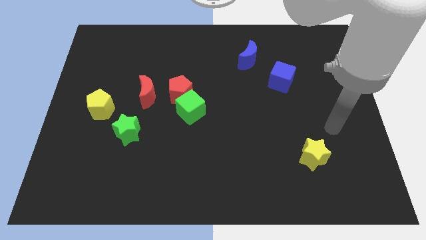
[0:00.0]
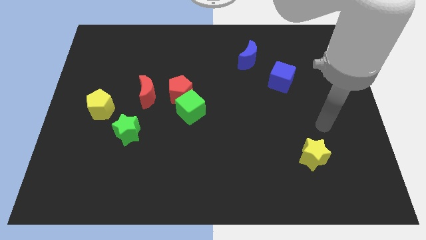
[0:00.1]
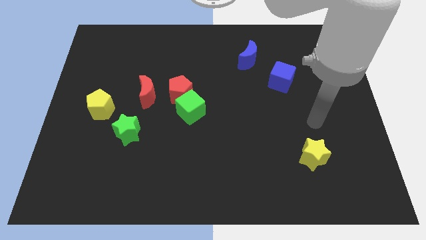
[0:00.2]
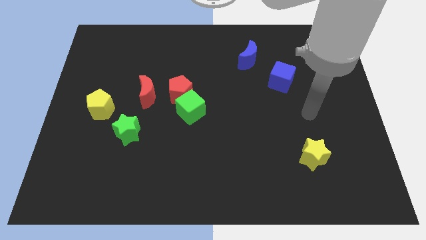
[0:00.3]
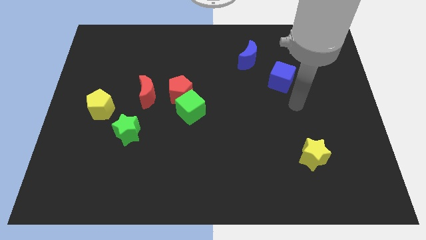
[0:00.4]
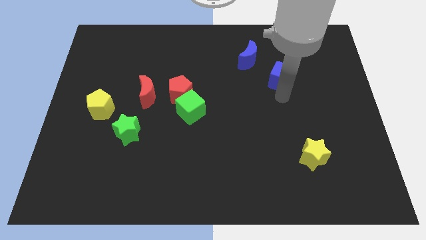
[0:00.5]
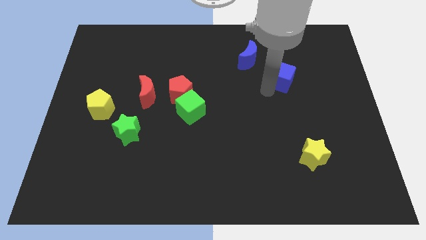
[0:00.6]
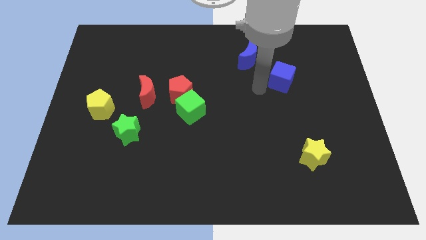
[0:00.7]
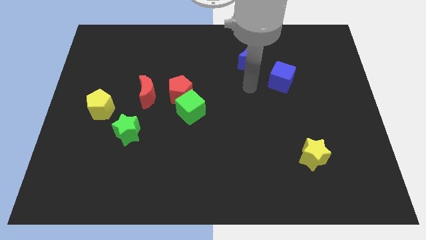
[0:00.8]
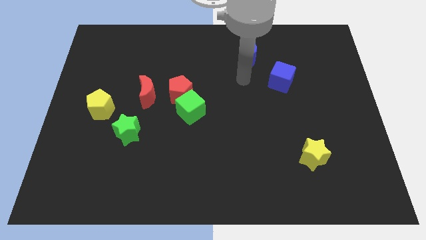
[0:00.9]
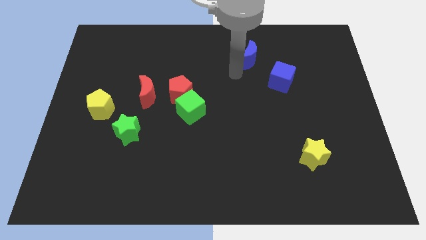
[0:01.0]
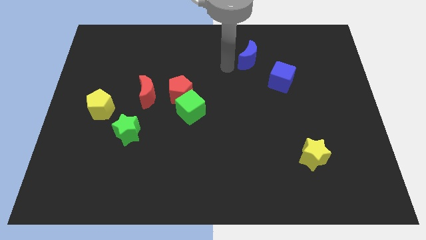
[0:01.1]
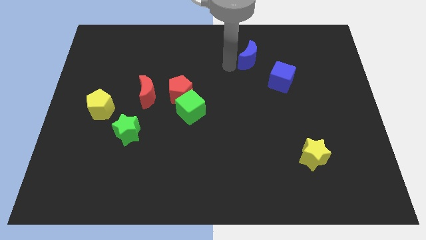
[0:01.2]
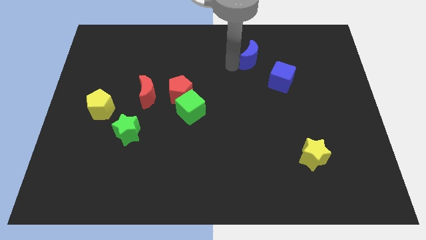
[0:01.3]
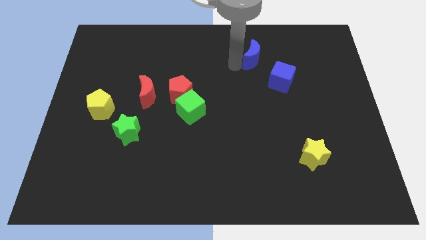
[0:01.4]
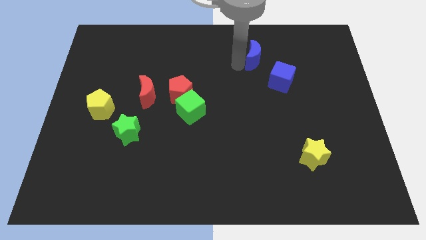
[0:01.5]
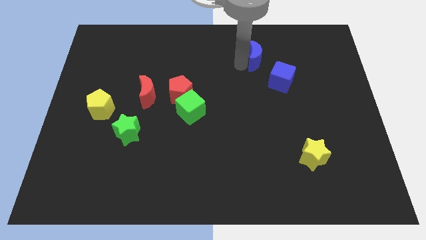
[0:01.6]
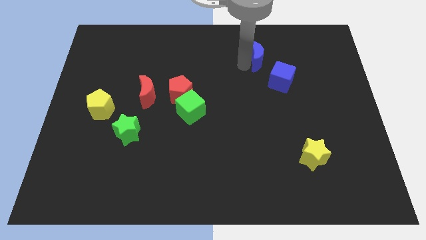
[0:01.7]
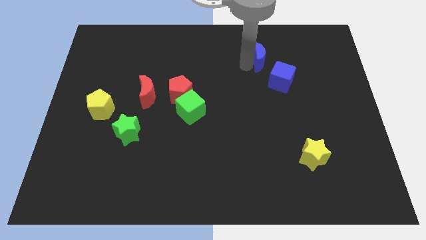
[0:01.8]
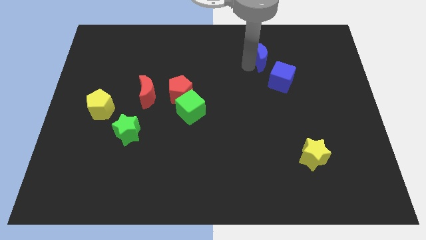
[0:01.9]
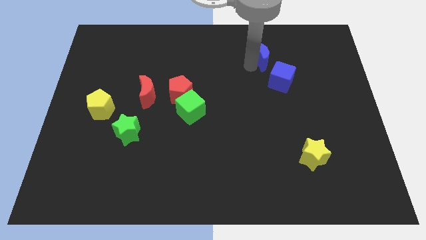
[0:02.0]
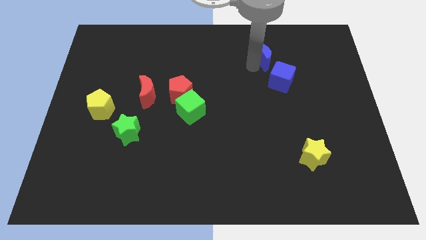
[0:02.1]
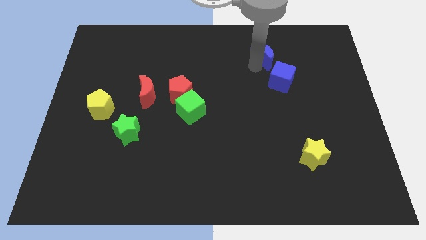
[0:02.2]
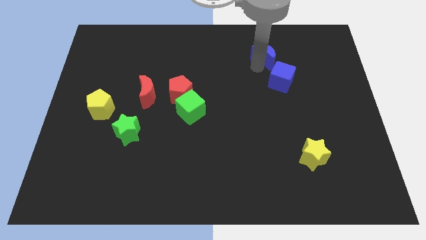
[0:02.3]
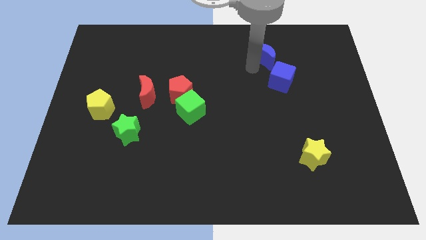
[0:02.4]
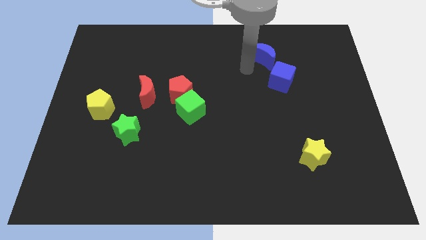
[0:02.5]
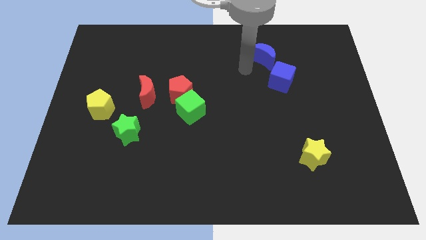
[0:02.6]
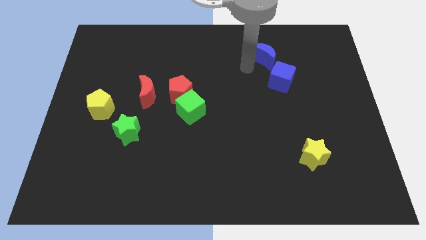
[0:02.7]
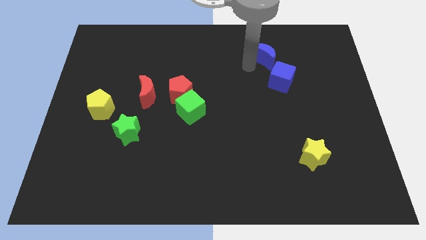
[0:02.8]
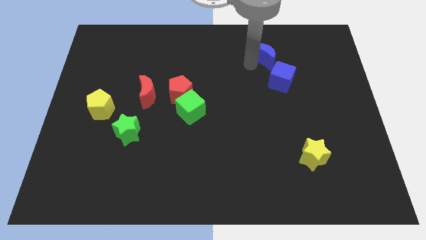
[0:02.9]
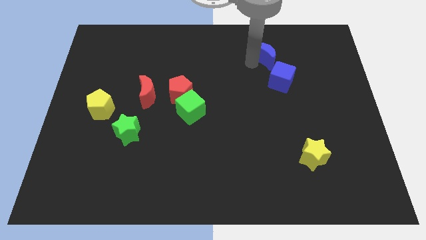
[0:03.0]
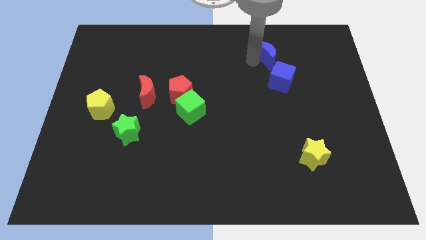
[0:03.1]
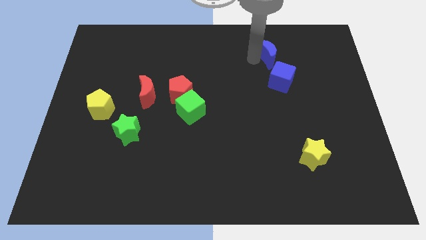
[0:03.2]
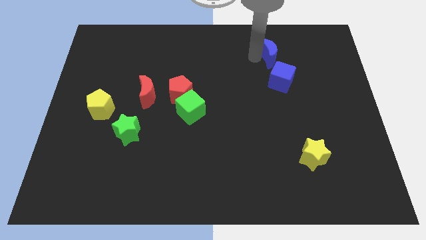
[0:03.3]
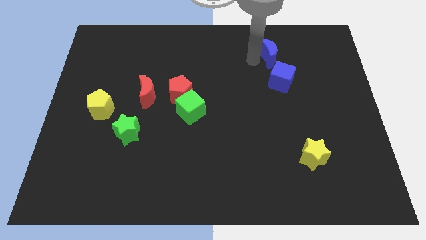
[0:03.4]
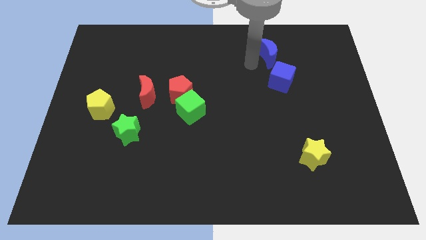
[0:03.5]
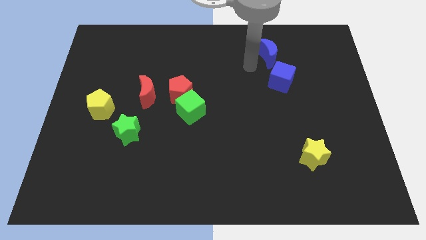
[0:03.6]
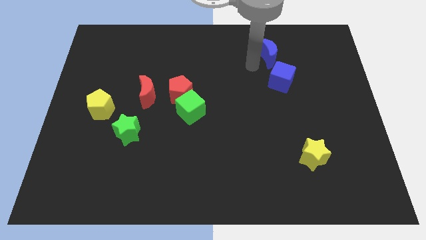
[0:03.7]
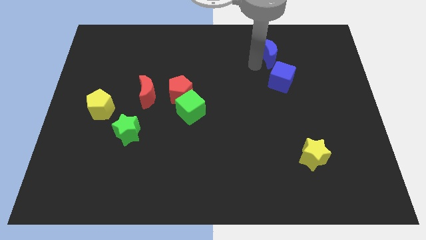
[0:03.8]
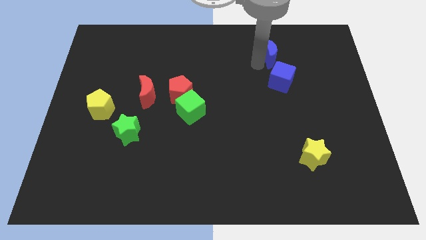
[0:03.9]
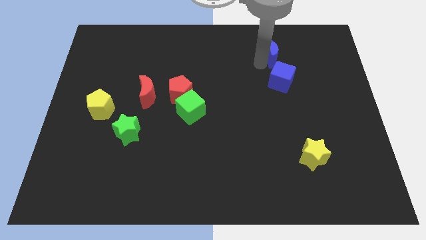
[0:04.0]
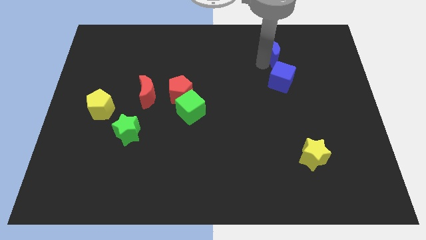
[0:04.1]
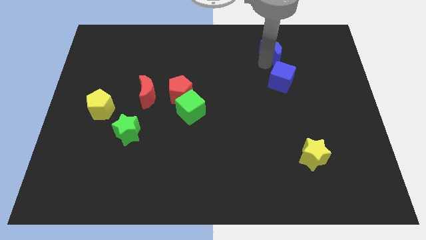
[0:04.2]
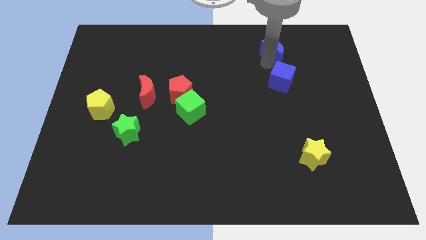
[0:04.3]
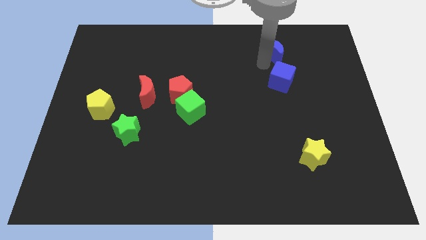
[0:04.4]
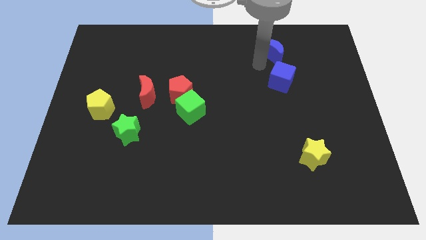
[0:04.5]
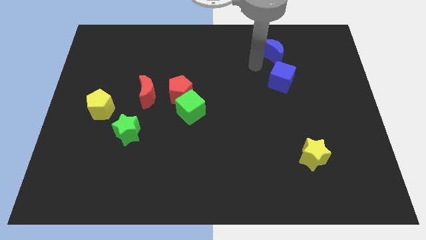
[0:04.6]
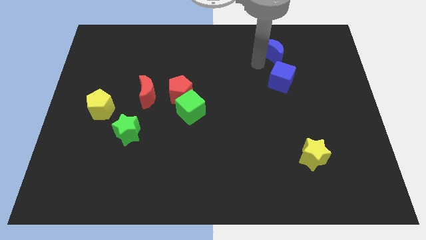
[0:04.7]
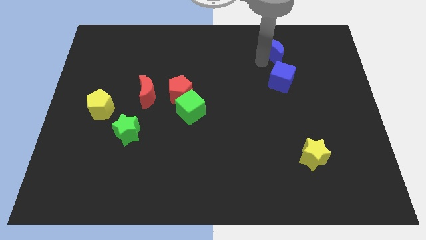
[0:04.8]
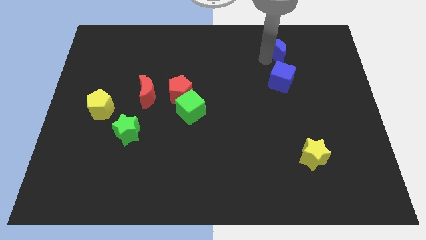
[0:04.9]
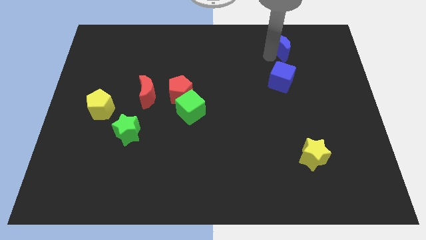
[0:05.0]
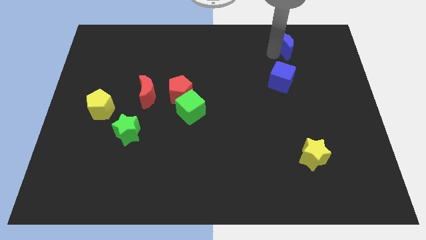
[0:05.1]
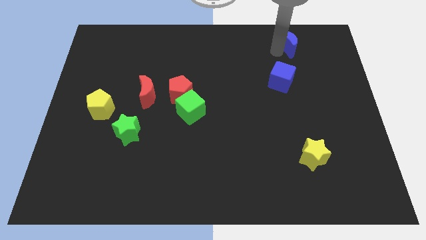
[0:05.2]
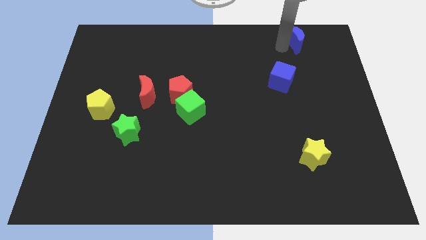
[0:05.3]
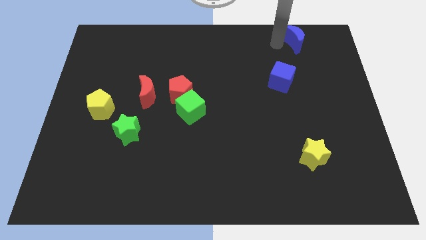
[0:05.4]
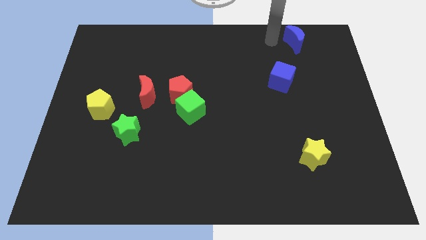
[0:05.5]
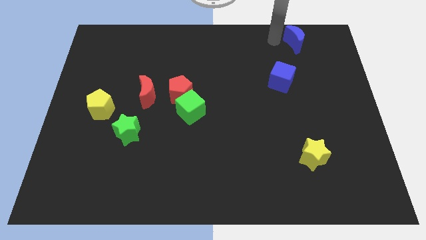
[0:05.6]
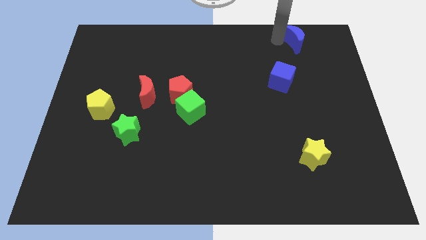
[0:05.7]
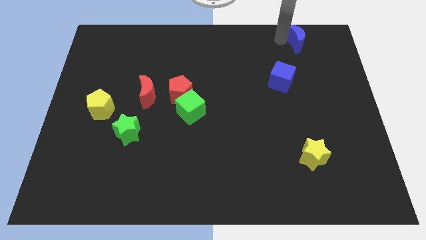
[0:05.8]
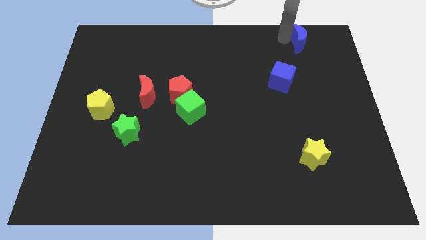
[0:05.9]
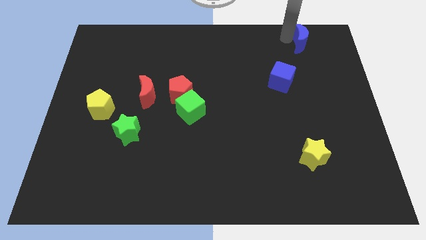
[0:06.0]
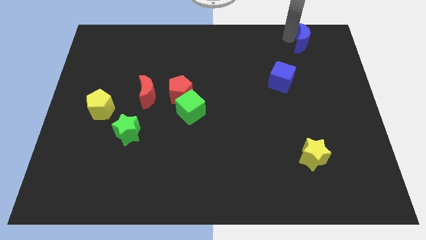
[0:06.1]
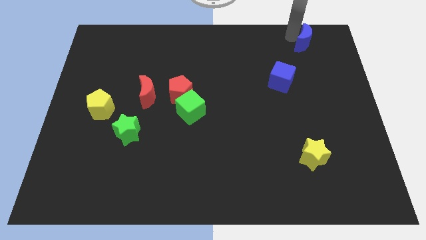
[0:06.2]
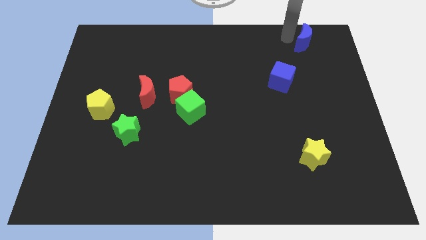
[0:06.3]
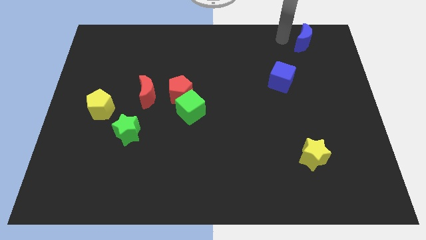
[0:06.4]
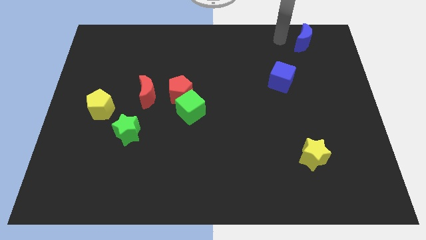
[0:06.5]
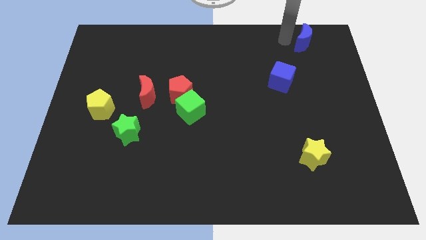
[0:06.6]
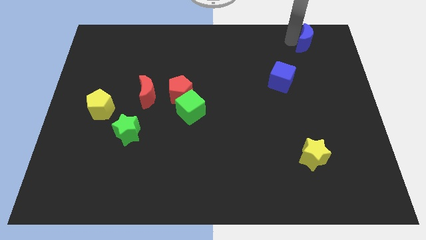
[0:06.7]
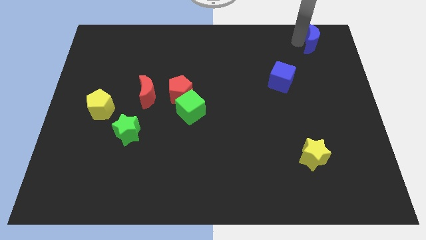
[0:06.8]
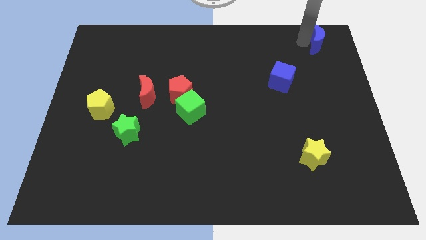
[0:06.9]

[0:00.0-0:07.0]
push the blue moon to the upper right corner

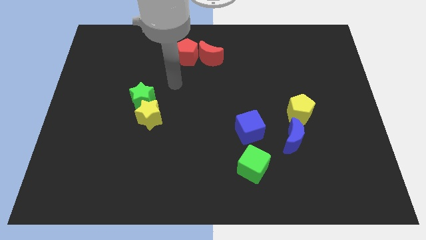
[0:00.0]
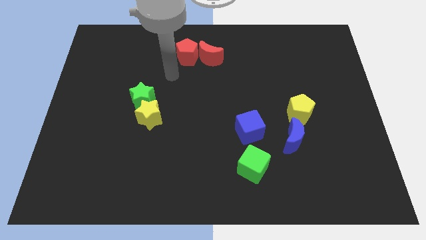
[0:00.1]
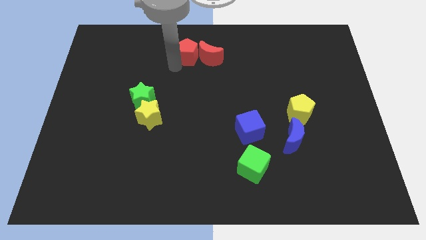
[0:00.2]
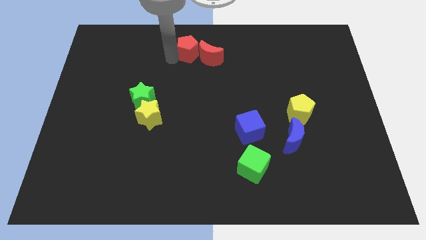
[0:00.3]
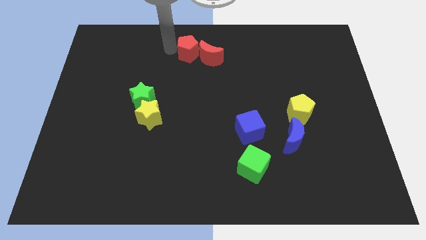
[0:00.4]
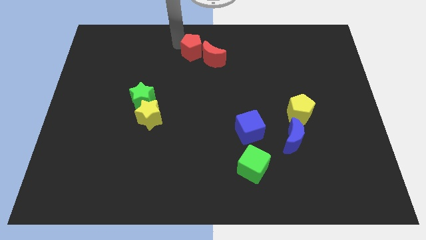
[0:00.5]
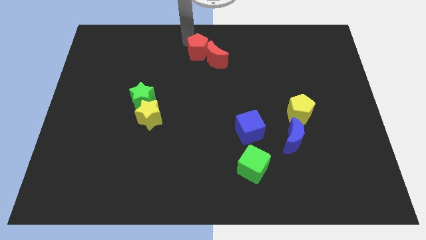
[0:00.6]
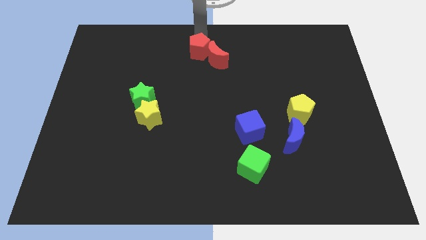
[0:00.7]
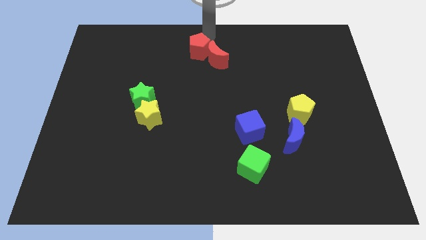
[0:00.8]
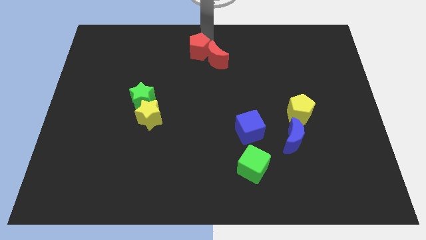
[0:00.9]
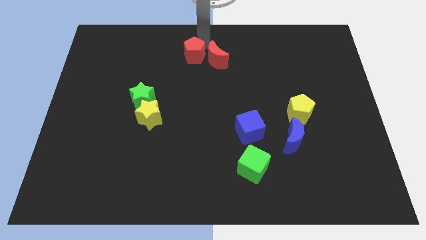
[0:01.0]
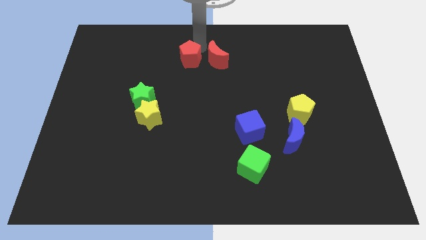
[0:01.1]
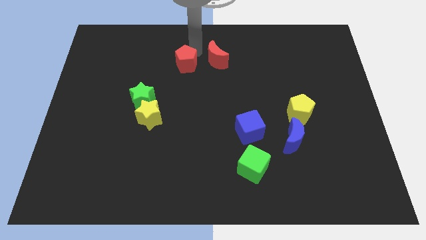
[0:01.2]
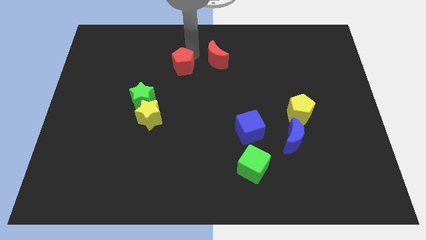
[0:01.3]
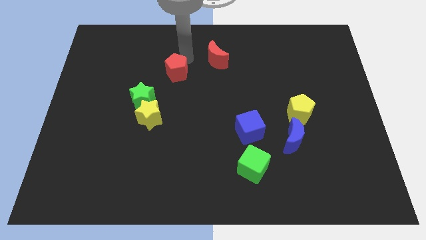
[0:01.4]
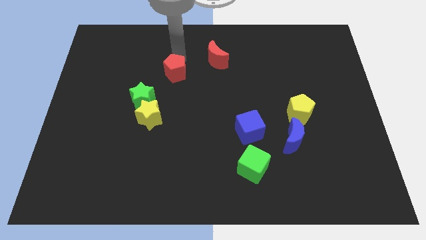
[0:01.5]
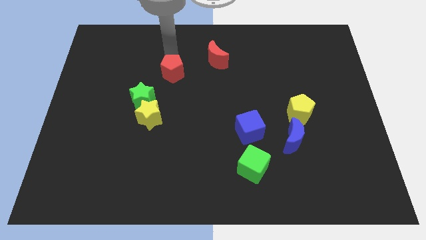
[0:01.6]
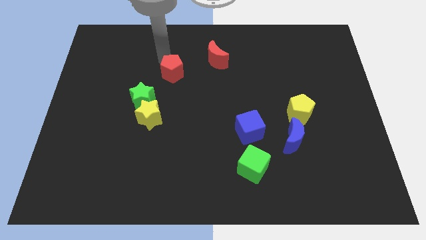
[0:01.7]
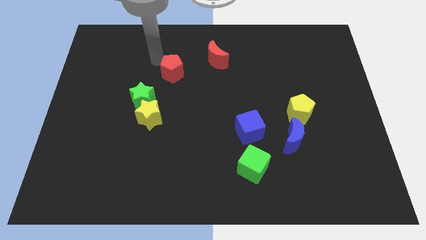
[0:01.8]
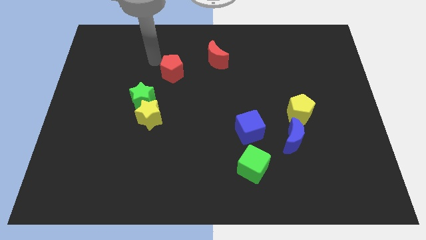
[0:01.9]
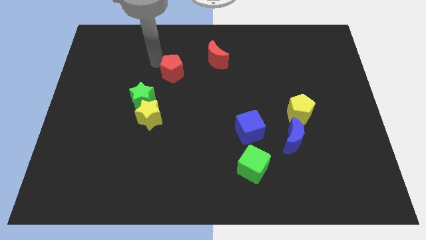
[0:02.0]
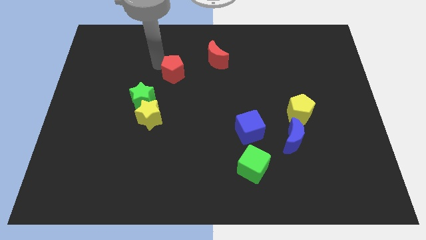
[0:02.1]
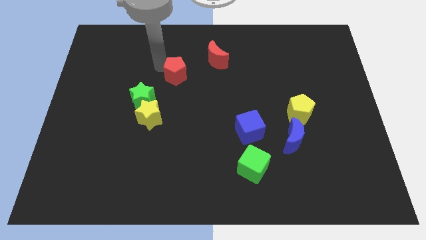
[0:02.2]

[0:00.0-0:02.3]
move the red pentagon to the middle
